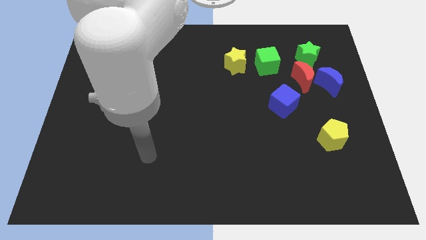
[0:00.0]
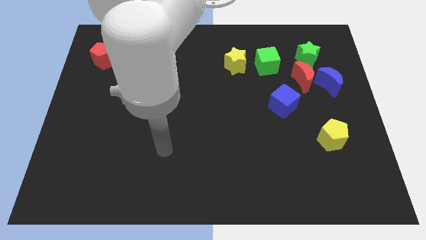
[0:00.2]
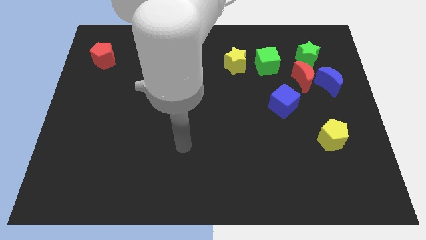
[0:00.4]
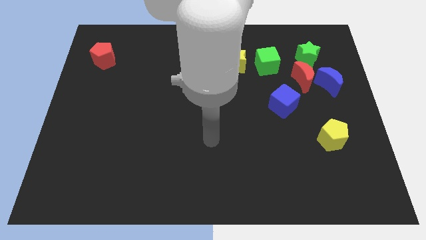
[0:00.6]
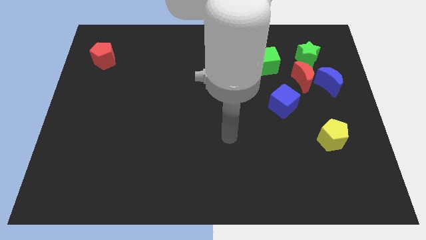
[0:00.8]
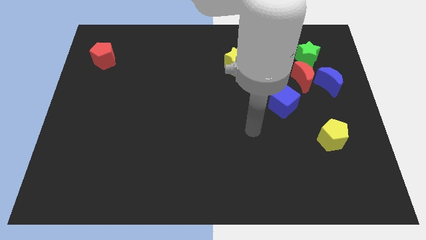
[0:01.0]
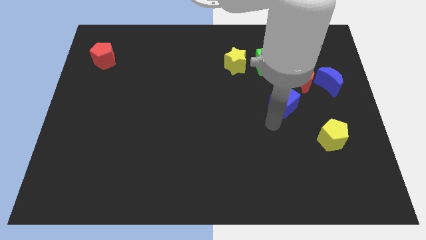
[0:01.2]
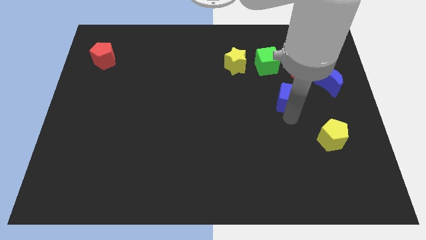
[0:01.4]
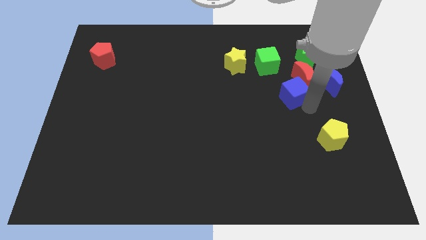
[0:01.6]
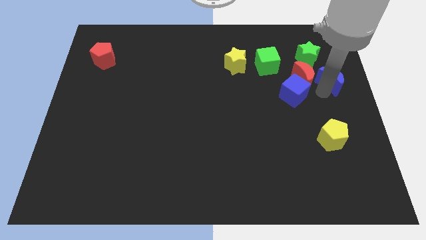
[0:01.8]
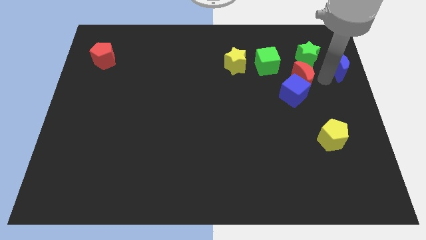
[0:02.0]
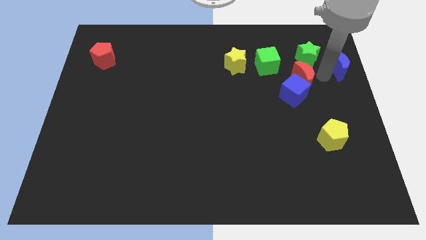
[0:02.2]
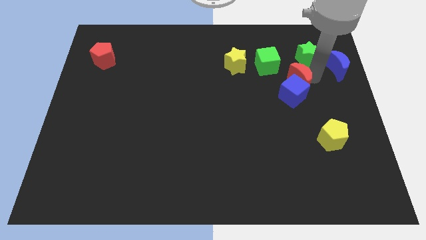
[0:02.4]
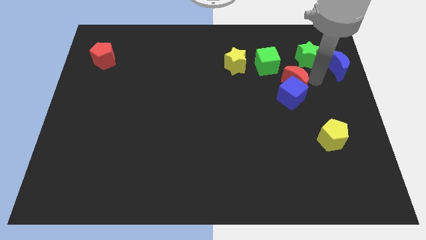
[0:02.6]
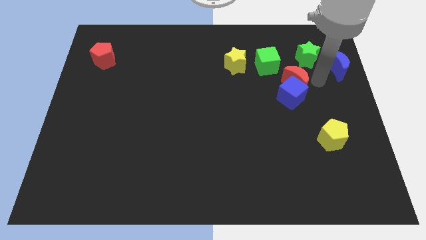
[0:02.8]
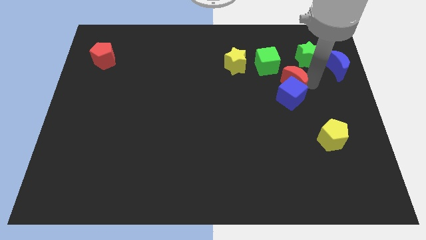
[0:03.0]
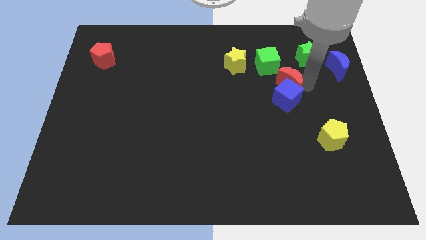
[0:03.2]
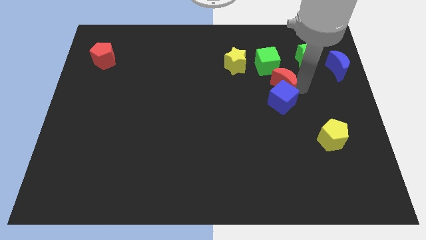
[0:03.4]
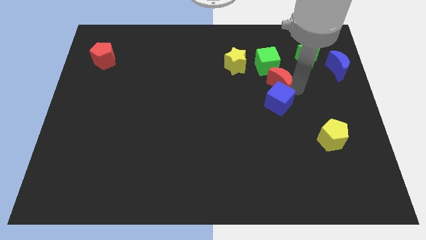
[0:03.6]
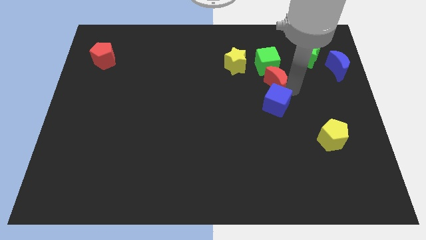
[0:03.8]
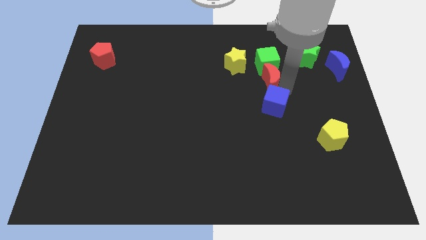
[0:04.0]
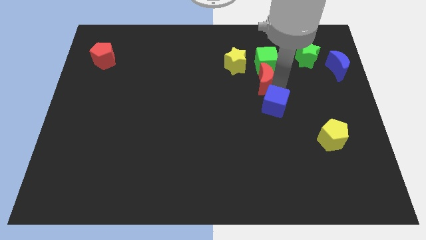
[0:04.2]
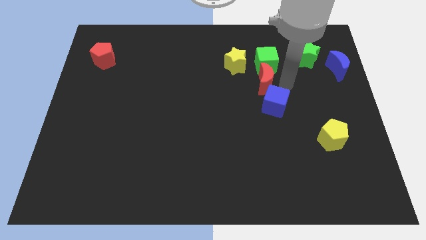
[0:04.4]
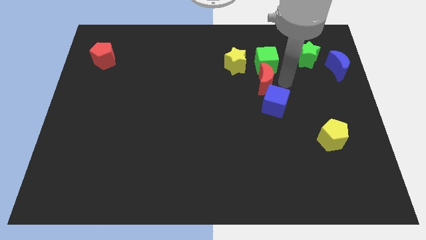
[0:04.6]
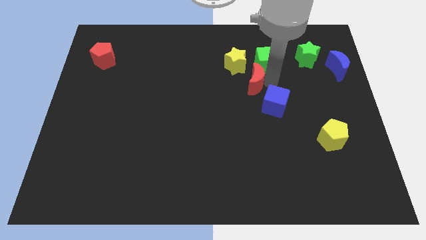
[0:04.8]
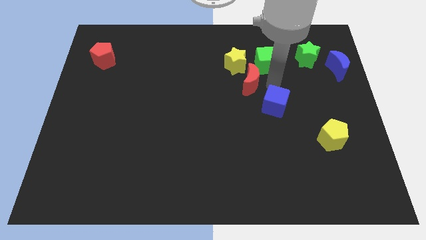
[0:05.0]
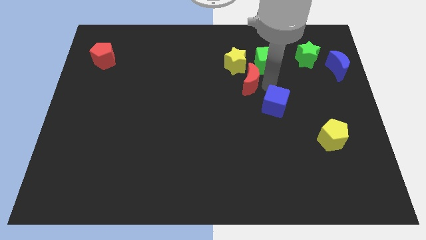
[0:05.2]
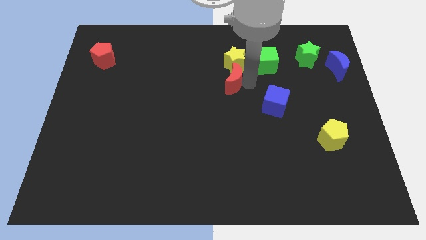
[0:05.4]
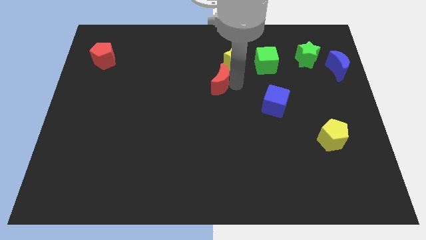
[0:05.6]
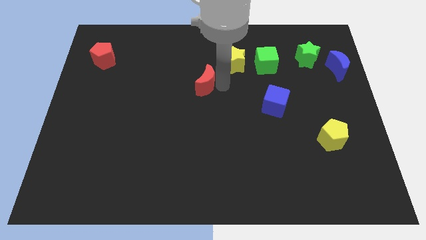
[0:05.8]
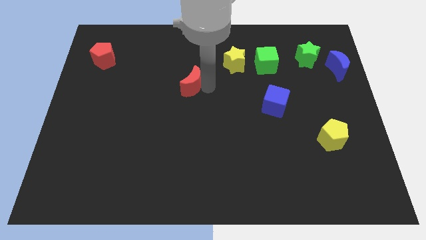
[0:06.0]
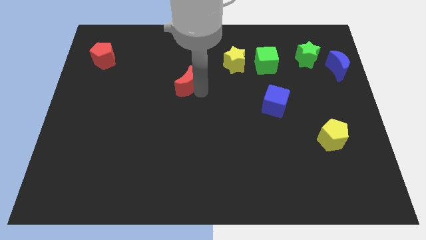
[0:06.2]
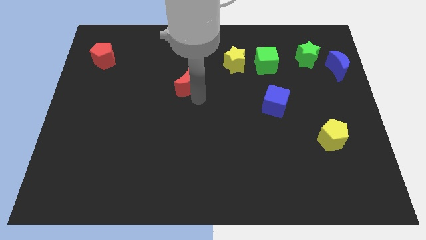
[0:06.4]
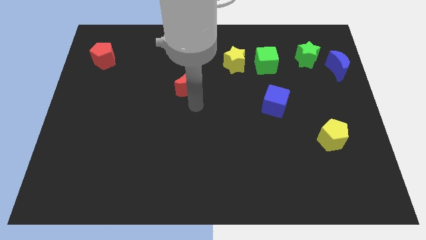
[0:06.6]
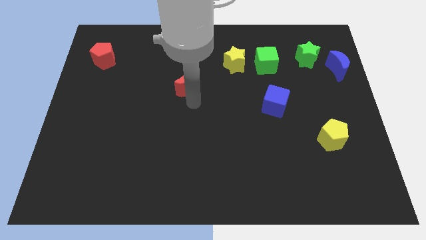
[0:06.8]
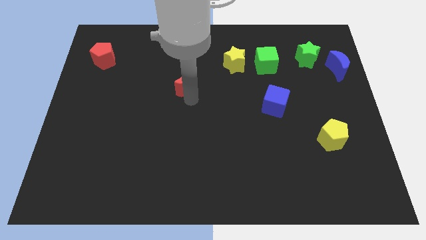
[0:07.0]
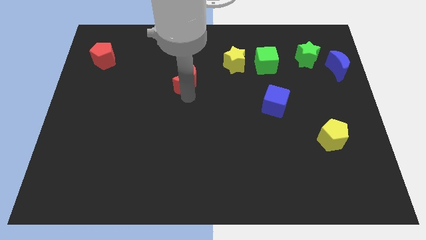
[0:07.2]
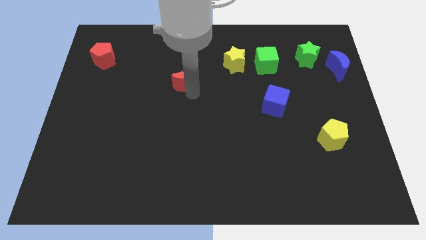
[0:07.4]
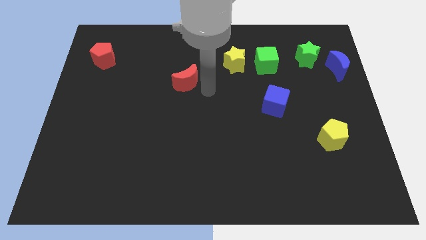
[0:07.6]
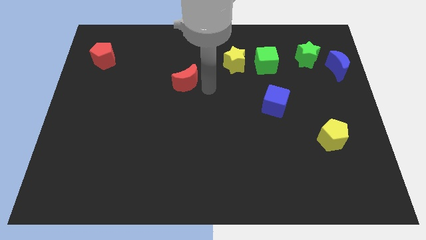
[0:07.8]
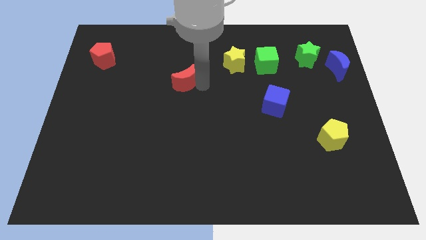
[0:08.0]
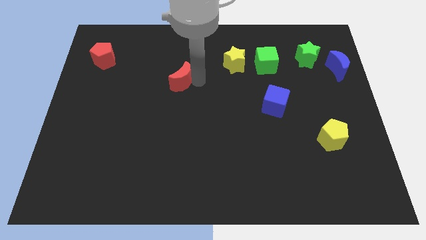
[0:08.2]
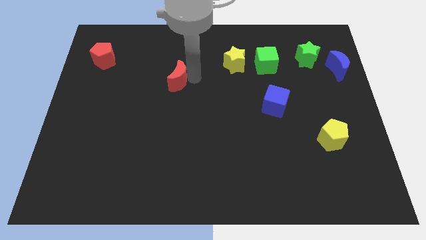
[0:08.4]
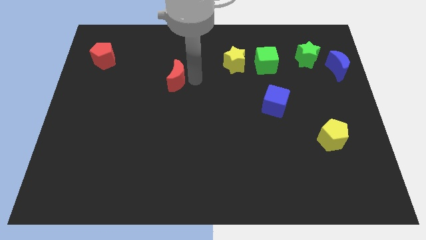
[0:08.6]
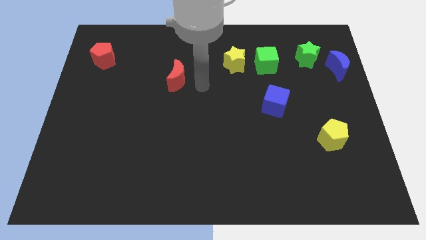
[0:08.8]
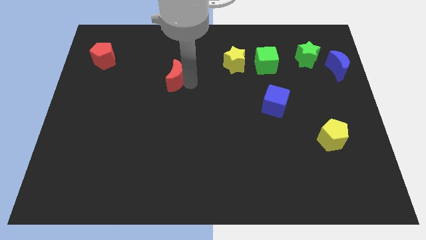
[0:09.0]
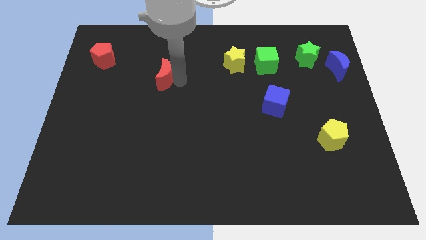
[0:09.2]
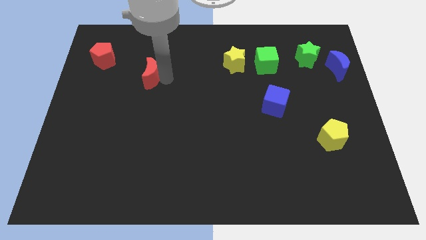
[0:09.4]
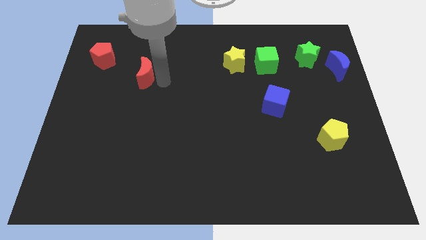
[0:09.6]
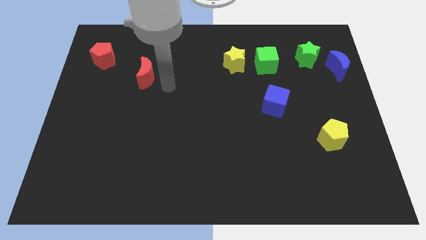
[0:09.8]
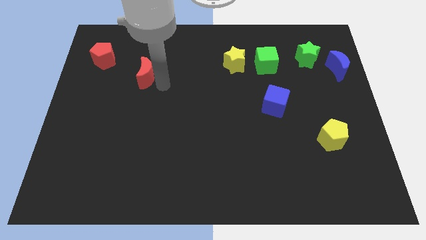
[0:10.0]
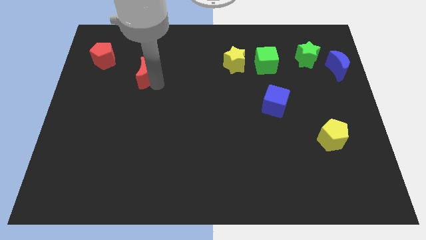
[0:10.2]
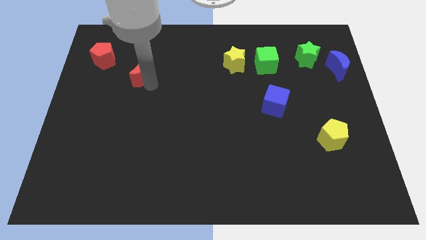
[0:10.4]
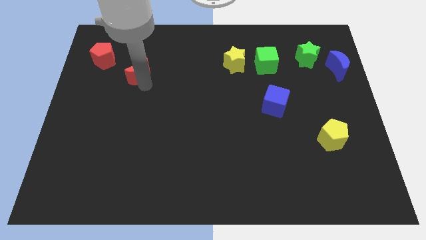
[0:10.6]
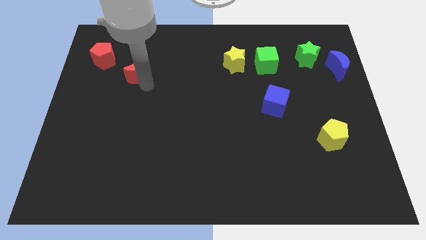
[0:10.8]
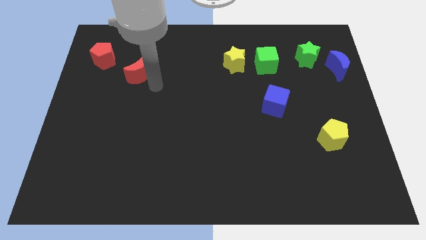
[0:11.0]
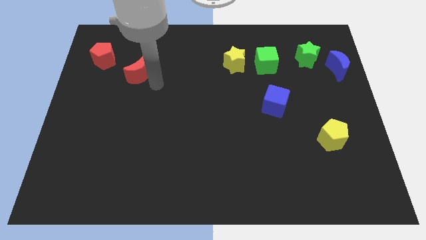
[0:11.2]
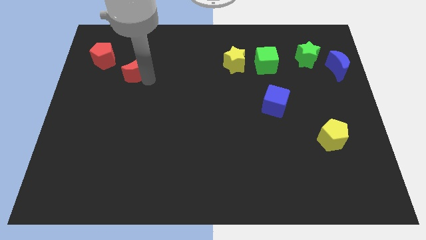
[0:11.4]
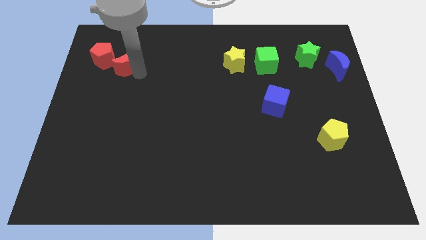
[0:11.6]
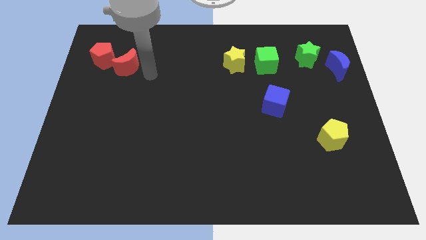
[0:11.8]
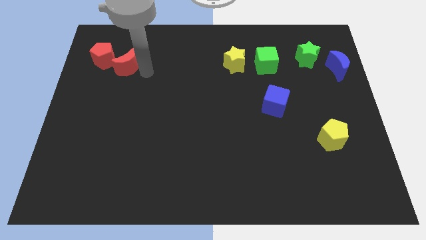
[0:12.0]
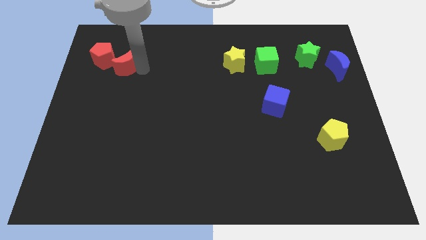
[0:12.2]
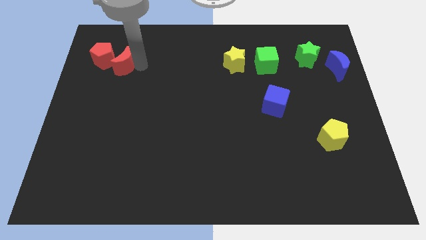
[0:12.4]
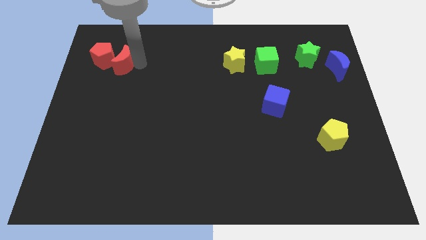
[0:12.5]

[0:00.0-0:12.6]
move the red moon towards the red pentagon

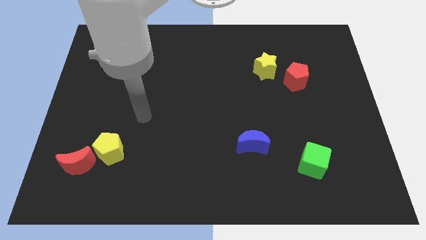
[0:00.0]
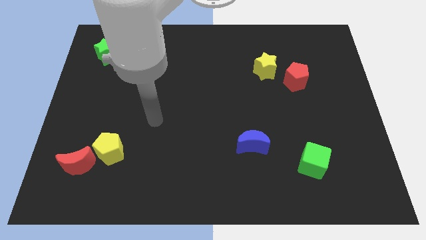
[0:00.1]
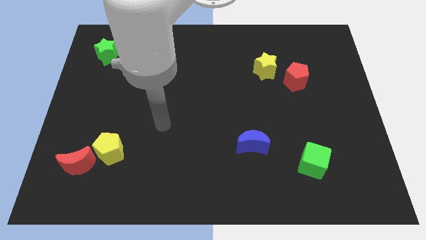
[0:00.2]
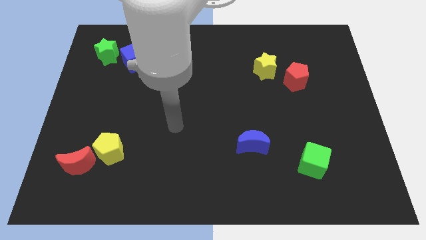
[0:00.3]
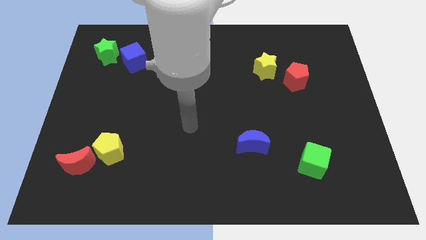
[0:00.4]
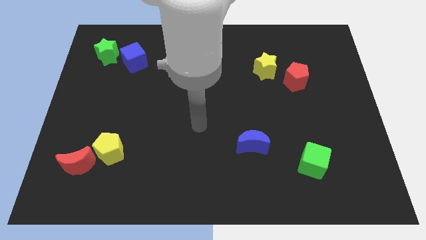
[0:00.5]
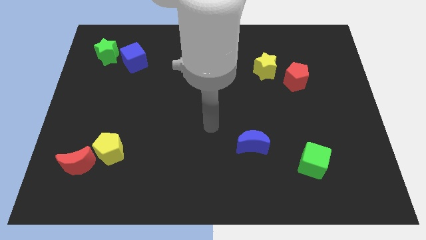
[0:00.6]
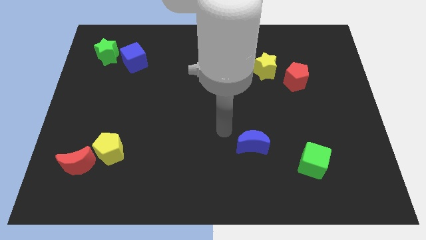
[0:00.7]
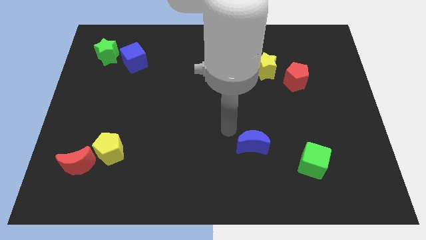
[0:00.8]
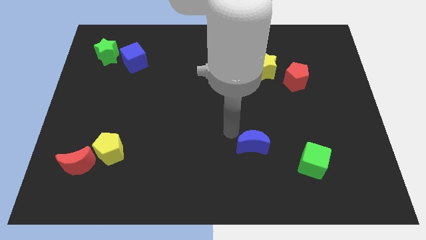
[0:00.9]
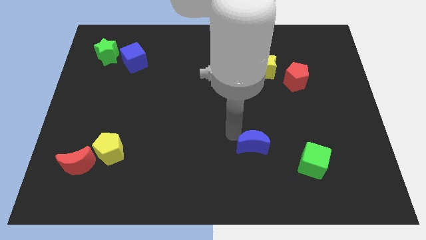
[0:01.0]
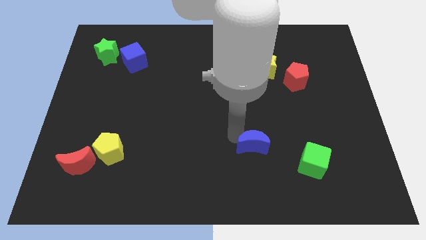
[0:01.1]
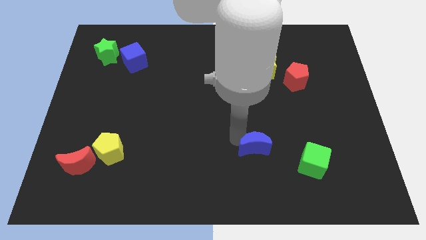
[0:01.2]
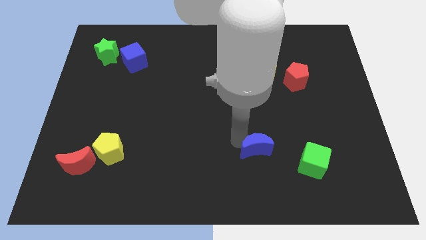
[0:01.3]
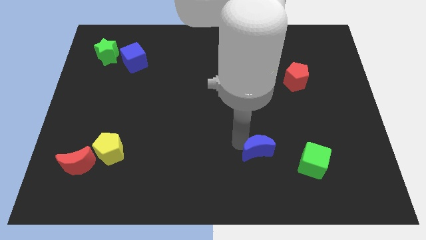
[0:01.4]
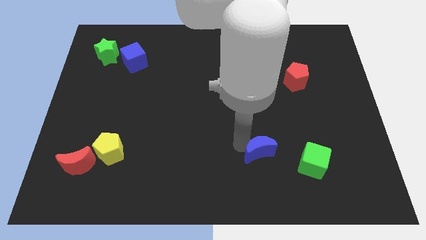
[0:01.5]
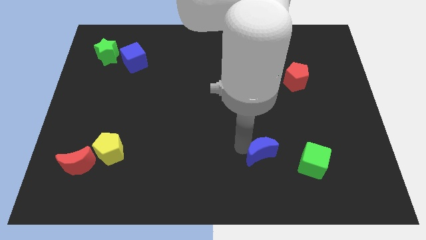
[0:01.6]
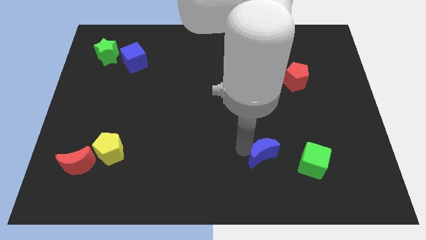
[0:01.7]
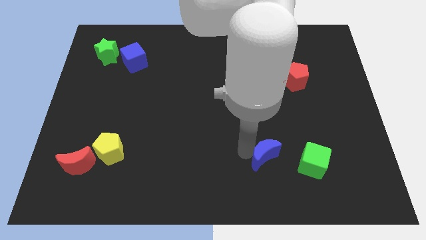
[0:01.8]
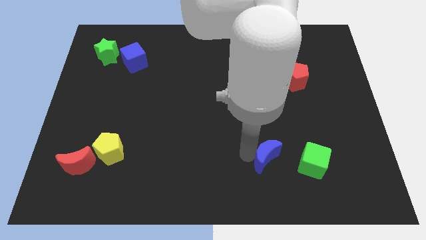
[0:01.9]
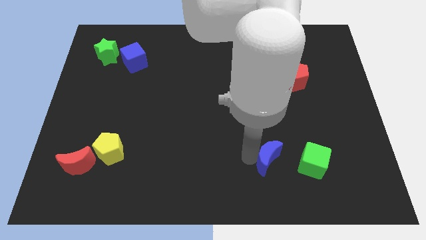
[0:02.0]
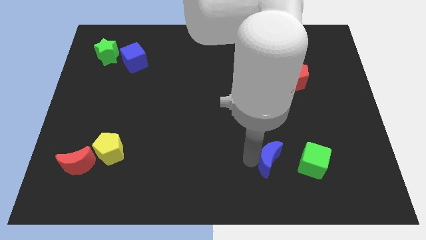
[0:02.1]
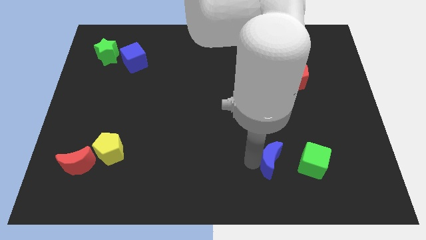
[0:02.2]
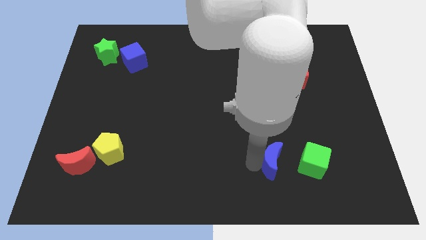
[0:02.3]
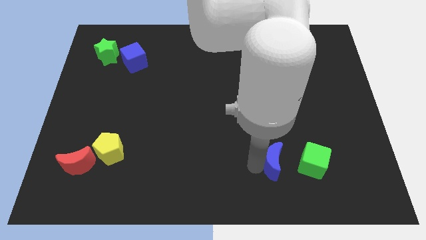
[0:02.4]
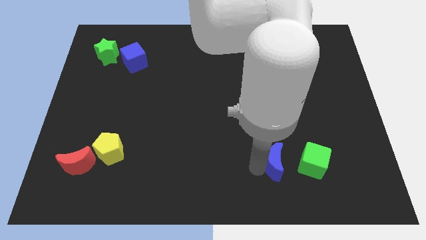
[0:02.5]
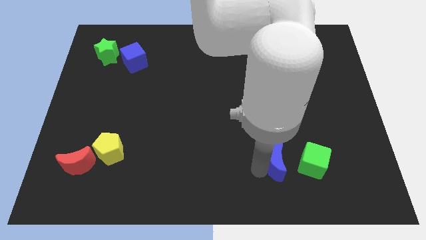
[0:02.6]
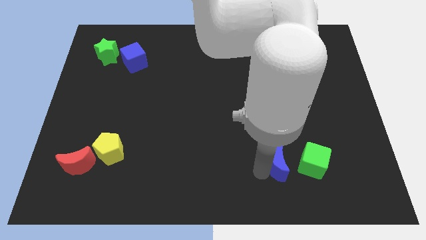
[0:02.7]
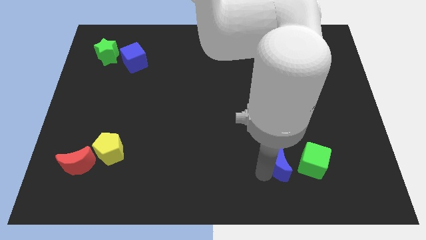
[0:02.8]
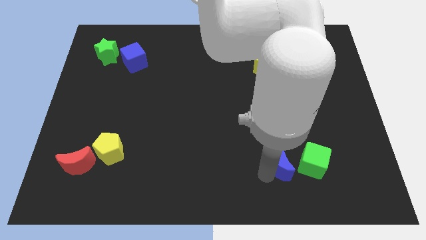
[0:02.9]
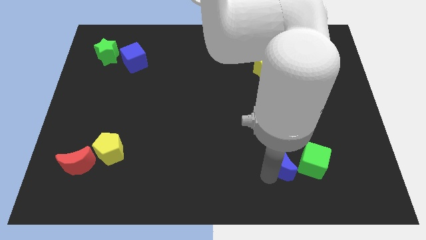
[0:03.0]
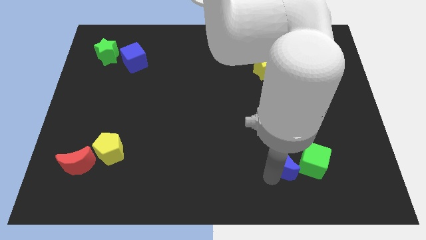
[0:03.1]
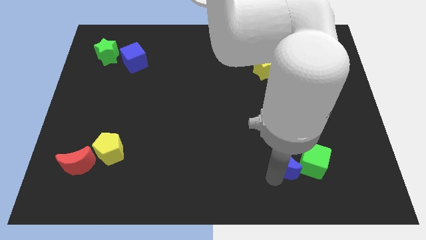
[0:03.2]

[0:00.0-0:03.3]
move the blue moon close to the green cube
